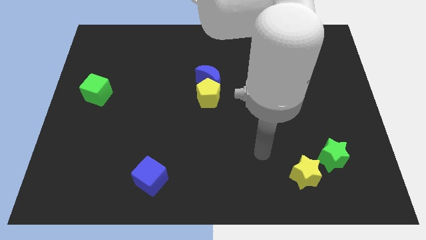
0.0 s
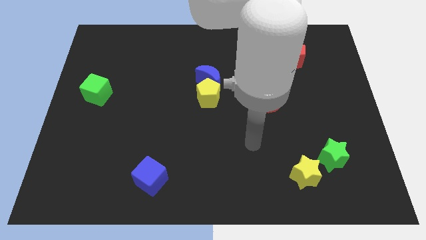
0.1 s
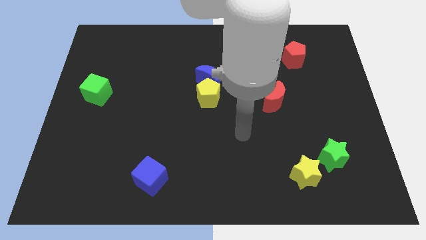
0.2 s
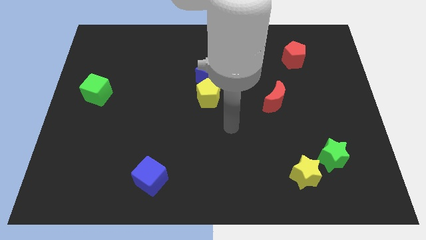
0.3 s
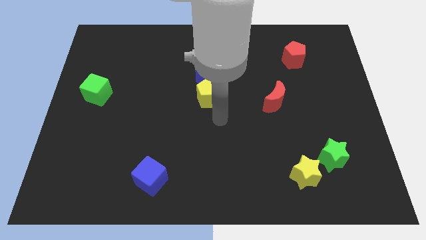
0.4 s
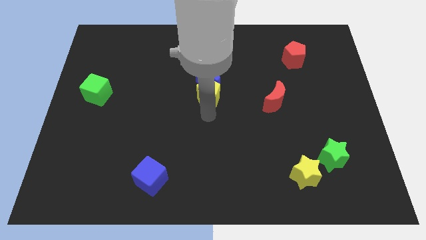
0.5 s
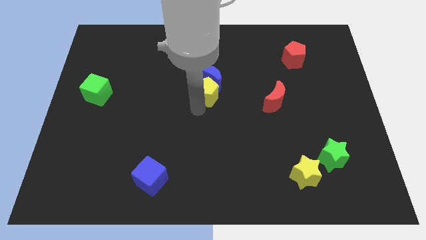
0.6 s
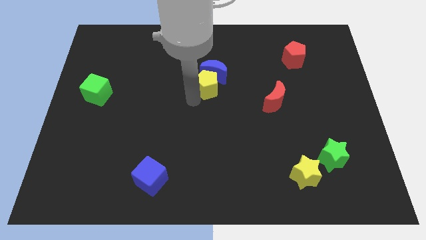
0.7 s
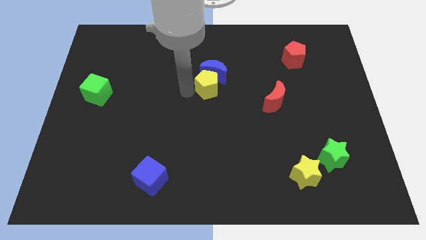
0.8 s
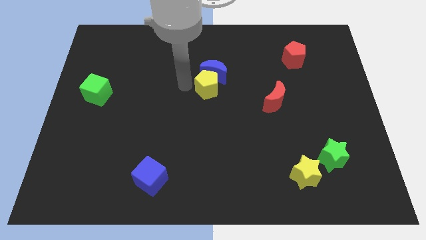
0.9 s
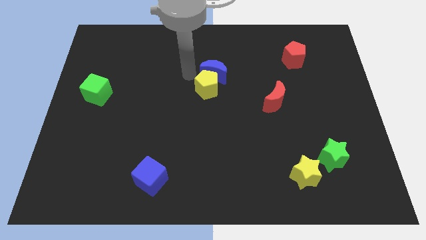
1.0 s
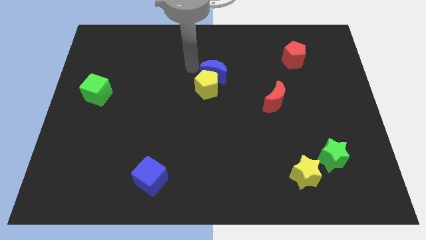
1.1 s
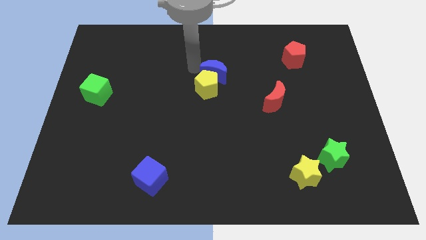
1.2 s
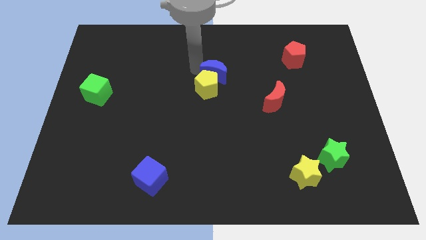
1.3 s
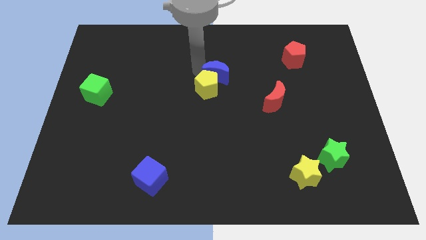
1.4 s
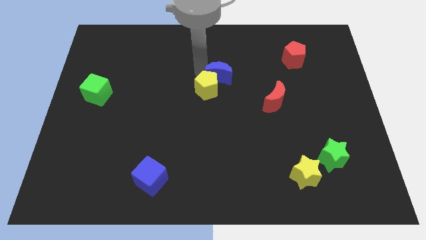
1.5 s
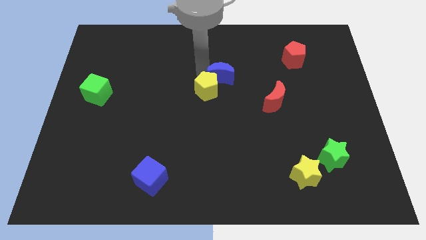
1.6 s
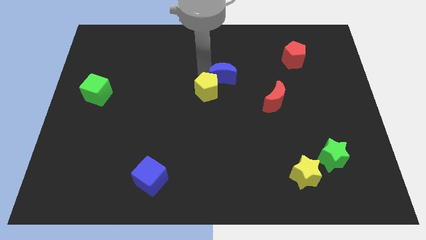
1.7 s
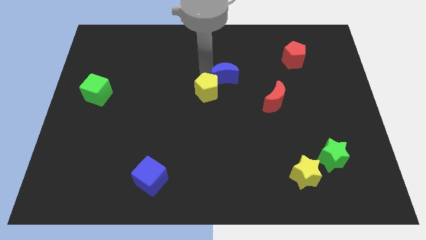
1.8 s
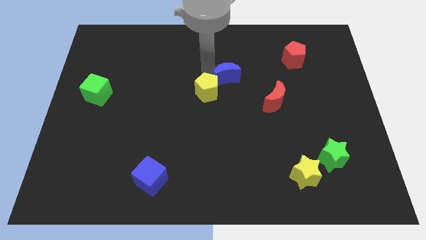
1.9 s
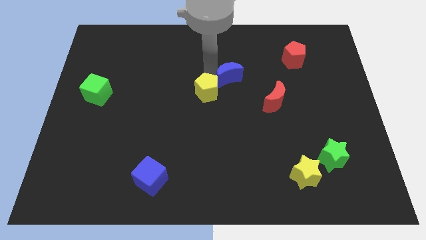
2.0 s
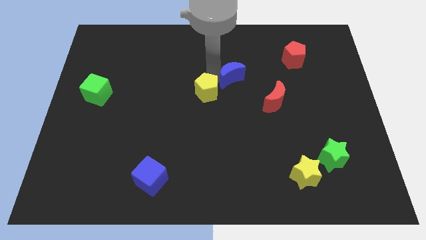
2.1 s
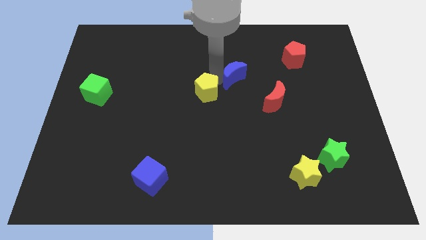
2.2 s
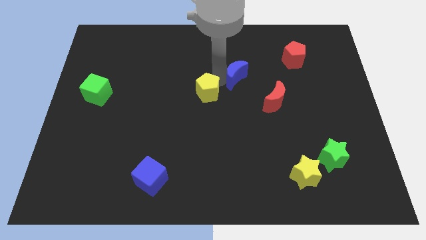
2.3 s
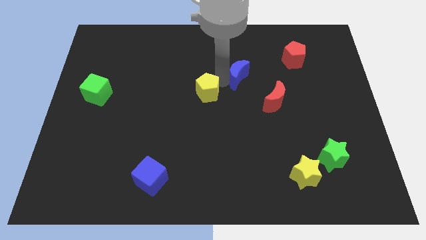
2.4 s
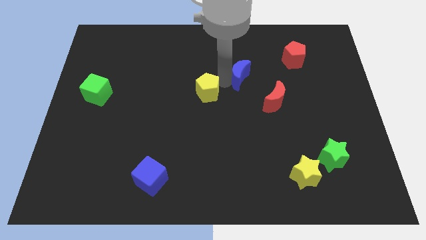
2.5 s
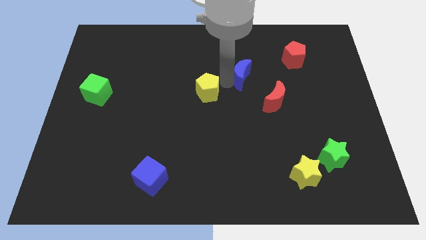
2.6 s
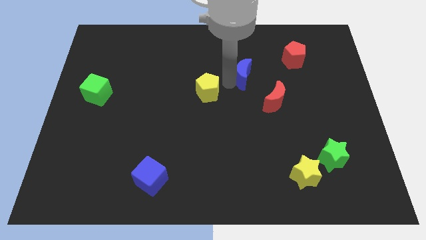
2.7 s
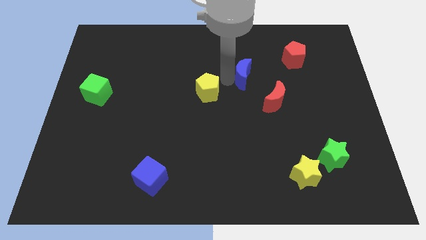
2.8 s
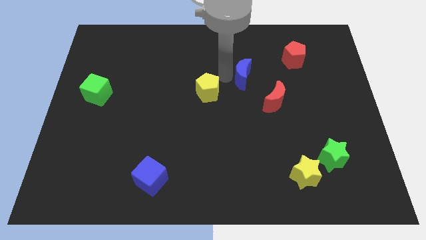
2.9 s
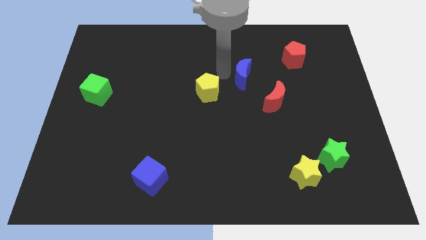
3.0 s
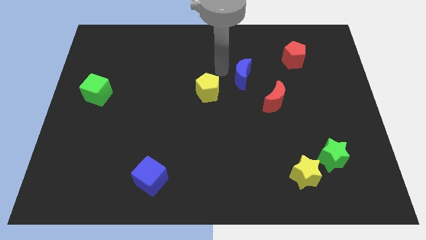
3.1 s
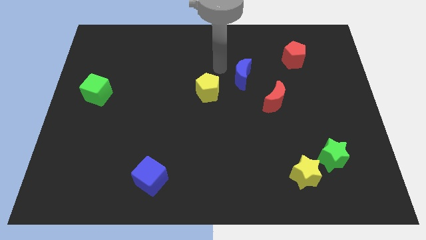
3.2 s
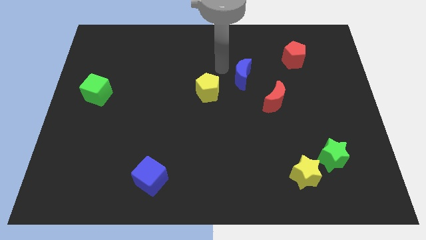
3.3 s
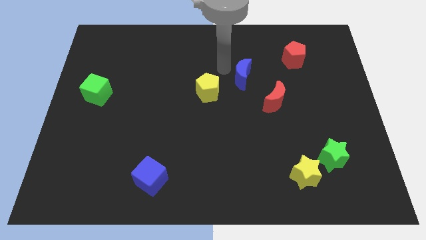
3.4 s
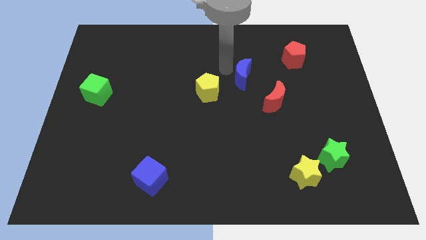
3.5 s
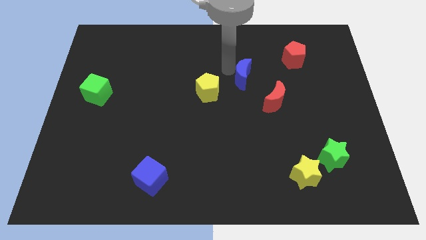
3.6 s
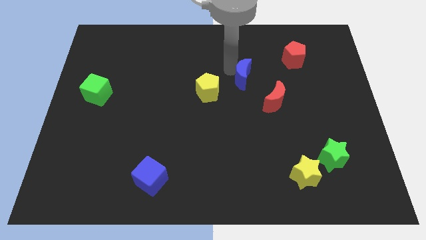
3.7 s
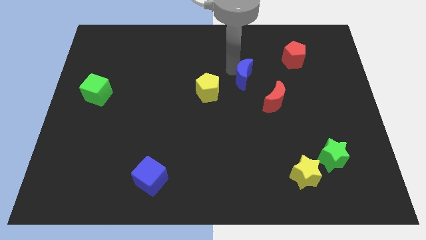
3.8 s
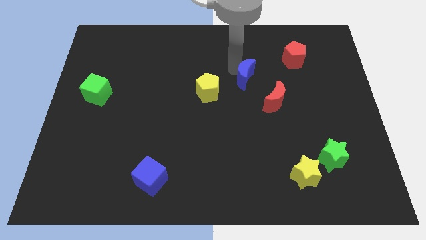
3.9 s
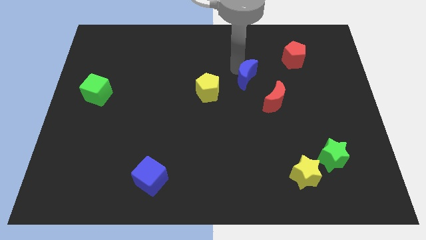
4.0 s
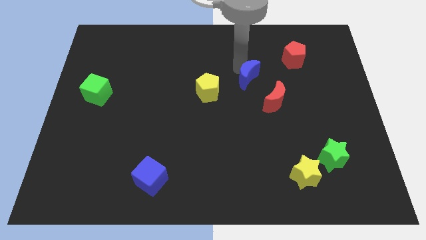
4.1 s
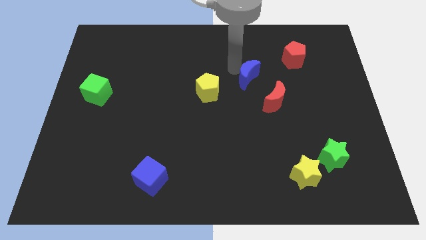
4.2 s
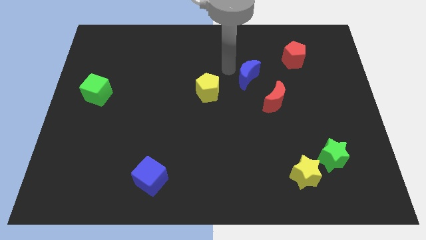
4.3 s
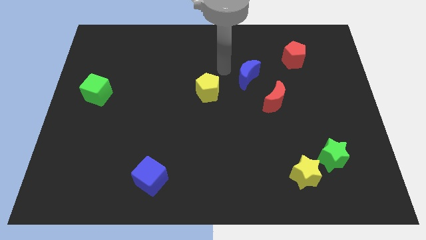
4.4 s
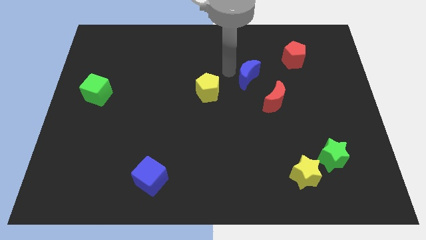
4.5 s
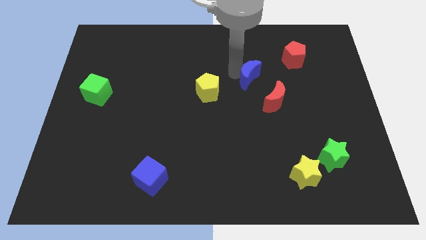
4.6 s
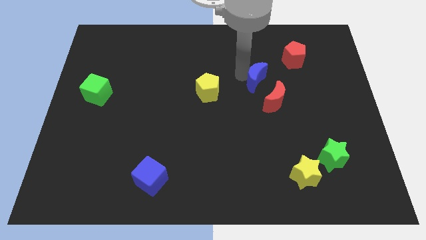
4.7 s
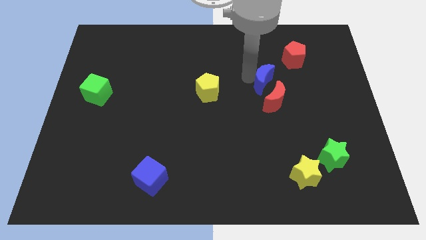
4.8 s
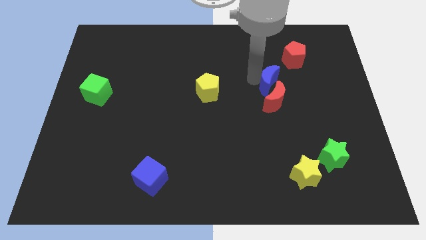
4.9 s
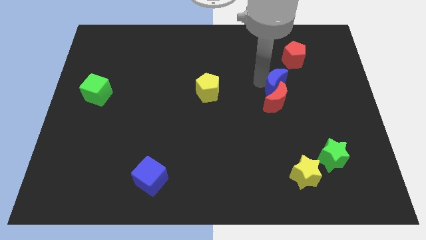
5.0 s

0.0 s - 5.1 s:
slide the blue moon diagonally up and to the right of the red moon

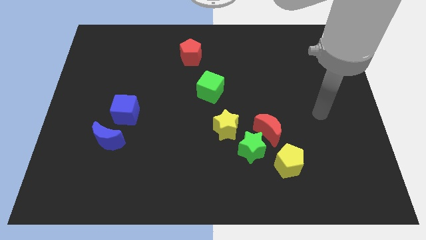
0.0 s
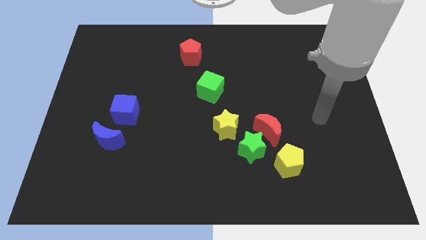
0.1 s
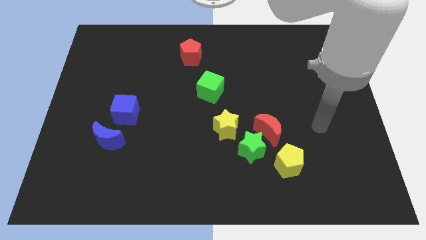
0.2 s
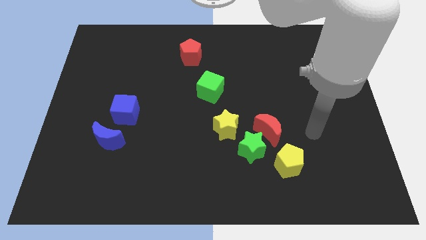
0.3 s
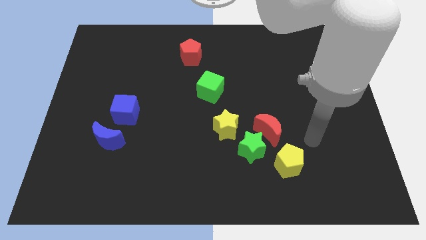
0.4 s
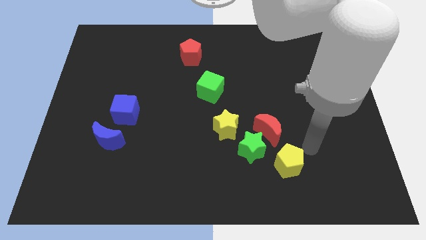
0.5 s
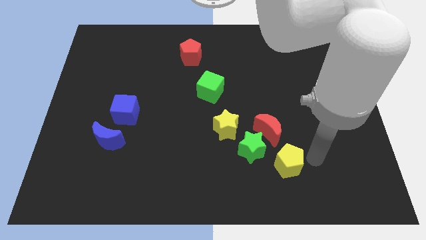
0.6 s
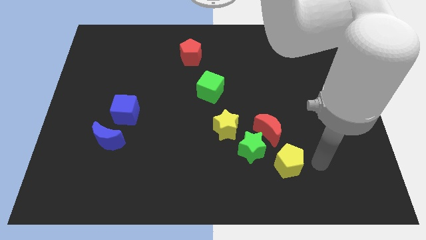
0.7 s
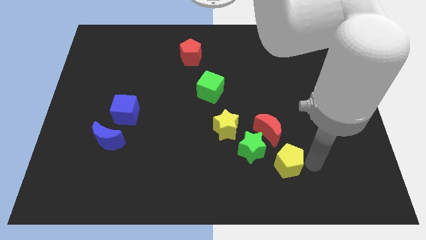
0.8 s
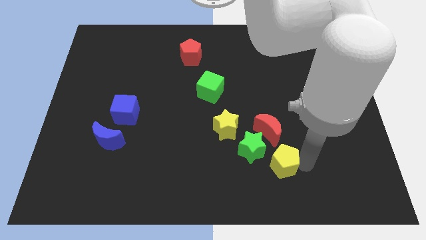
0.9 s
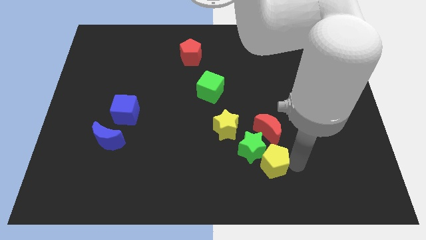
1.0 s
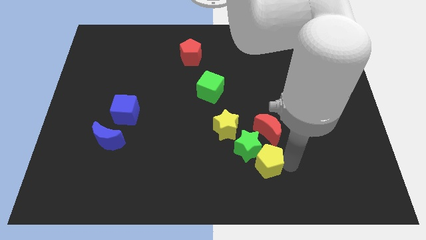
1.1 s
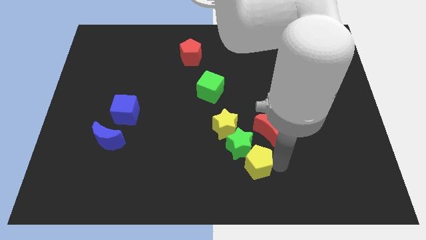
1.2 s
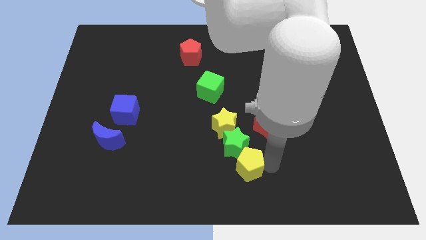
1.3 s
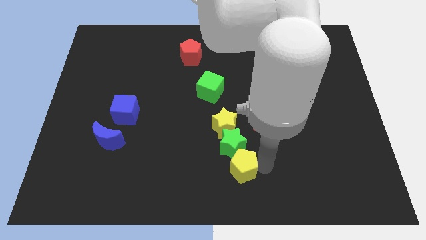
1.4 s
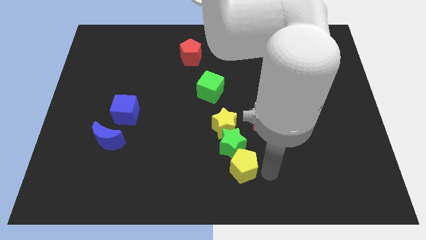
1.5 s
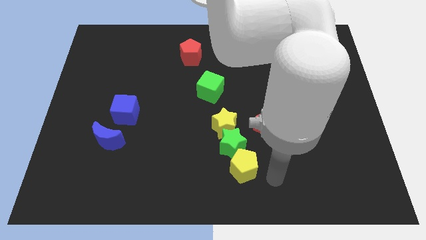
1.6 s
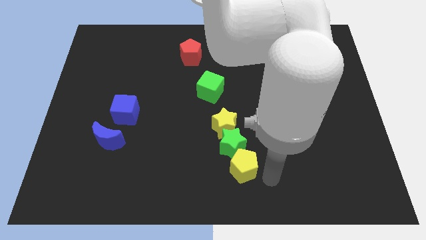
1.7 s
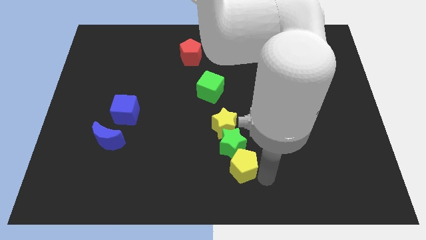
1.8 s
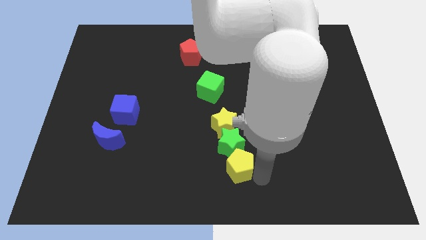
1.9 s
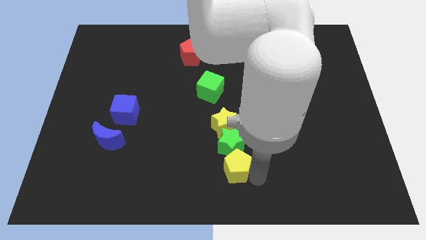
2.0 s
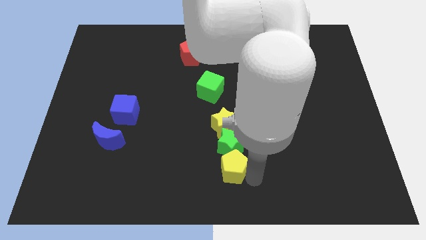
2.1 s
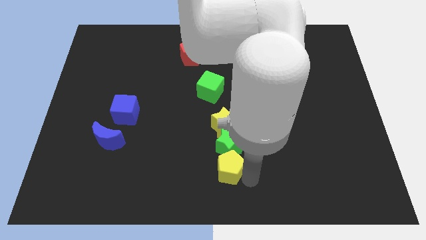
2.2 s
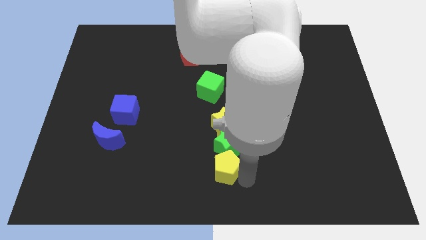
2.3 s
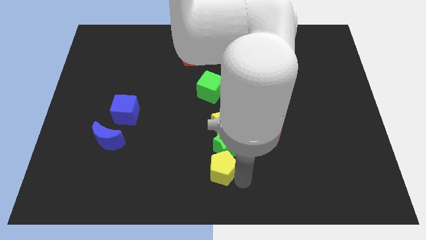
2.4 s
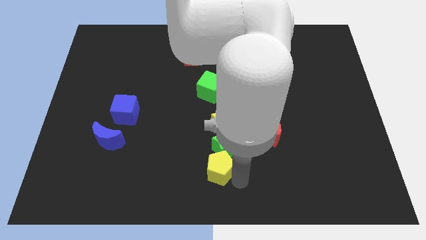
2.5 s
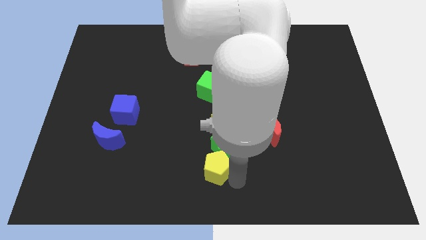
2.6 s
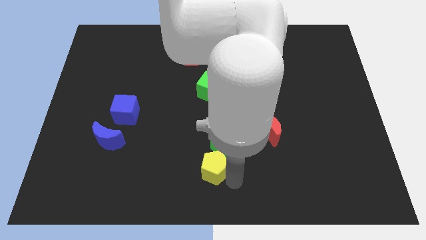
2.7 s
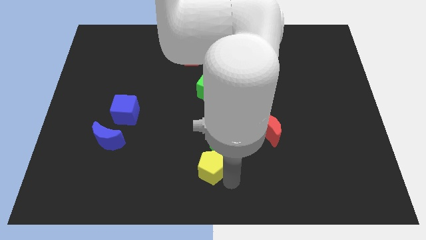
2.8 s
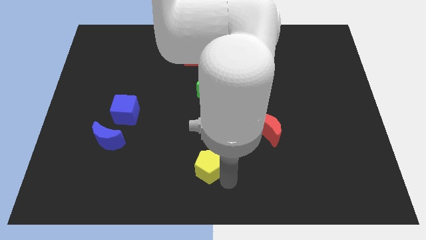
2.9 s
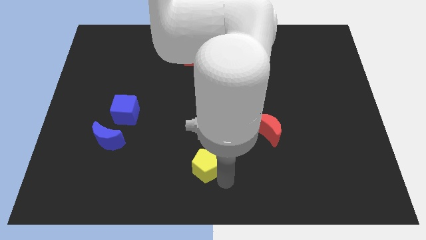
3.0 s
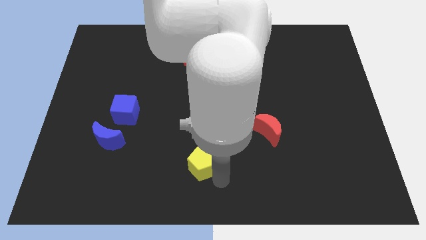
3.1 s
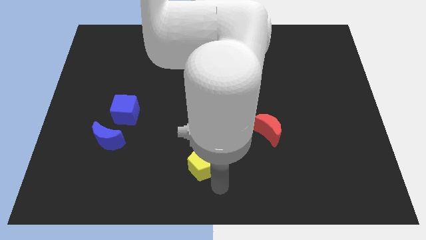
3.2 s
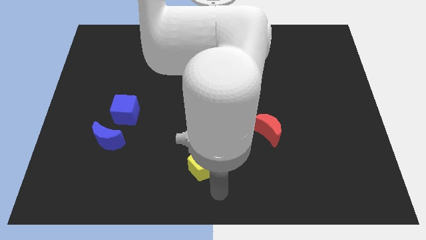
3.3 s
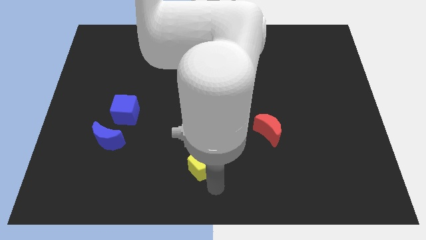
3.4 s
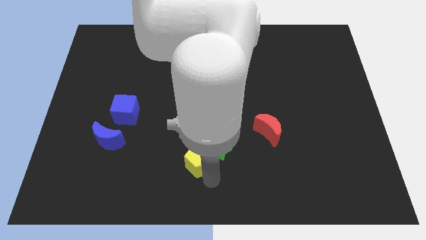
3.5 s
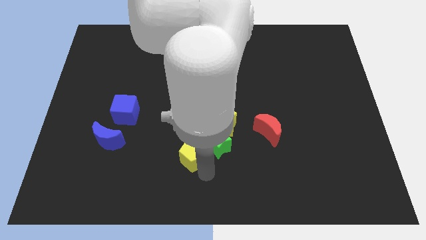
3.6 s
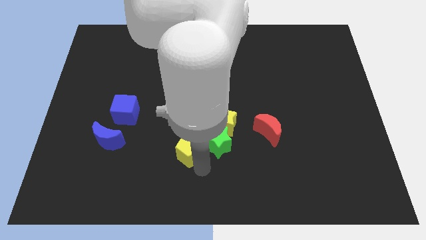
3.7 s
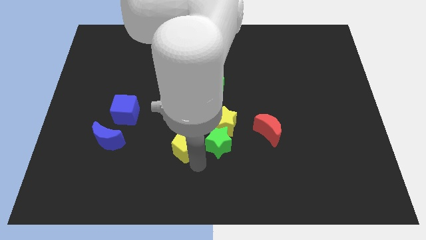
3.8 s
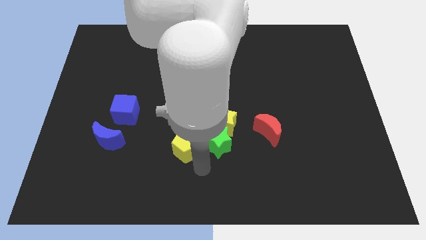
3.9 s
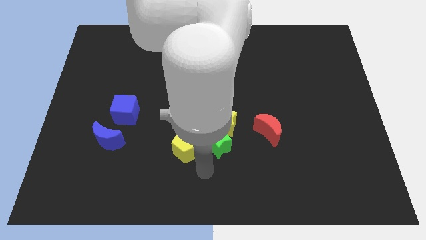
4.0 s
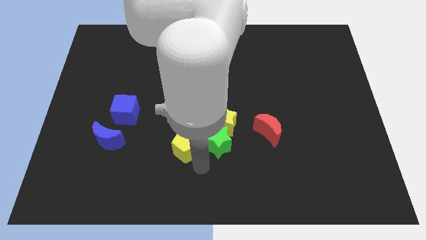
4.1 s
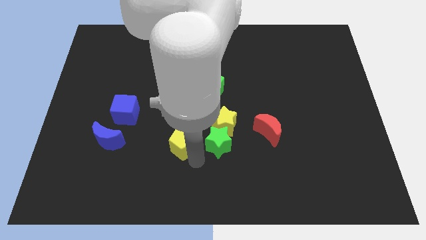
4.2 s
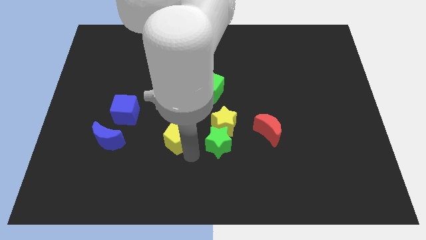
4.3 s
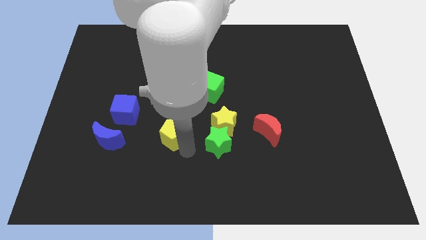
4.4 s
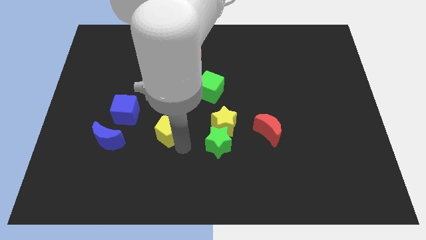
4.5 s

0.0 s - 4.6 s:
move the yellow pentagon to the bottom right side of the blue cube
